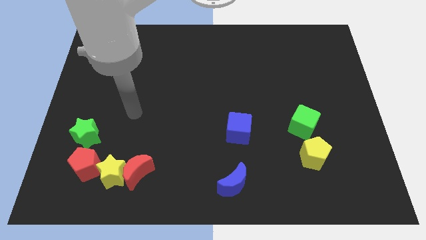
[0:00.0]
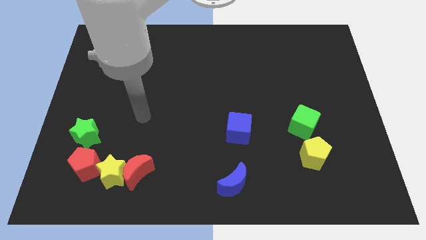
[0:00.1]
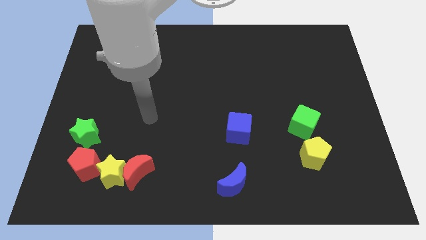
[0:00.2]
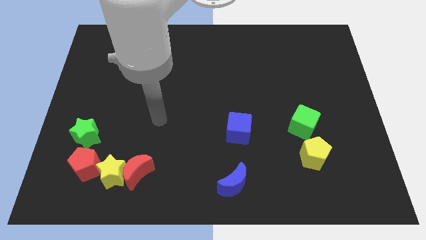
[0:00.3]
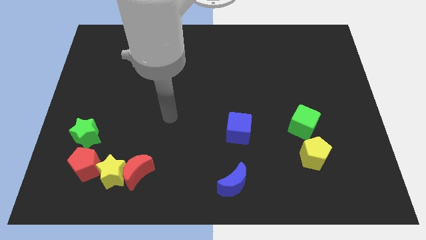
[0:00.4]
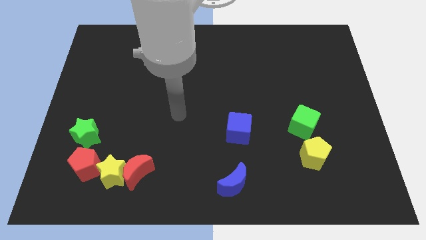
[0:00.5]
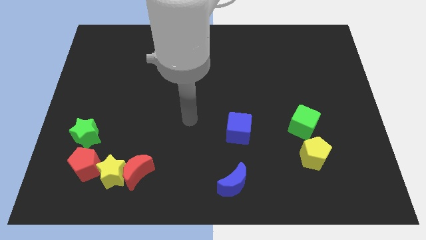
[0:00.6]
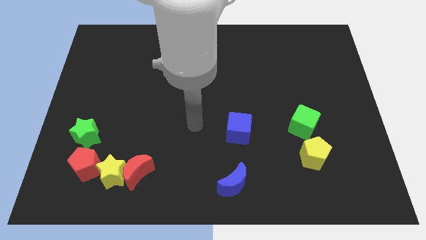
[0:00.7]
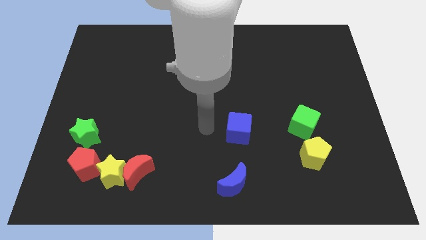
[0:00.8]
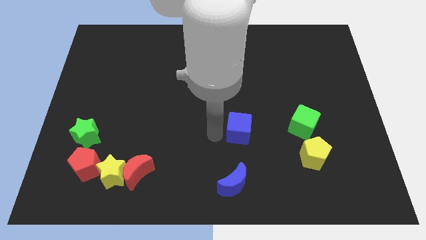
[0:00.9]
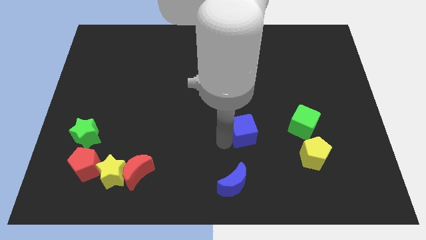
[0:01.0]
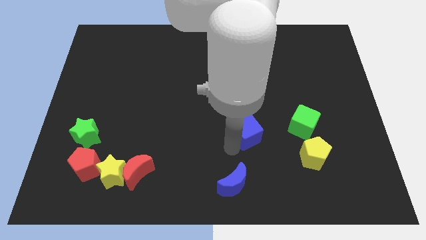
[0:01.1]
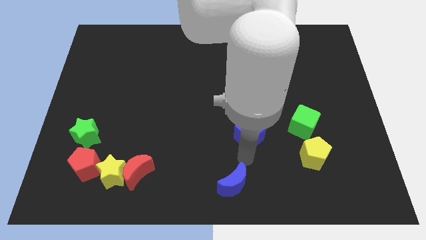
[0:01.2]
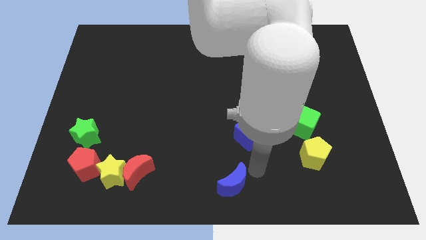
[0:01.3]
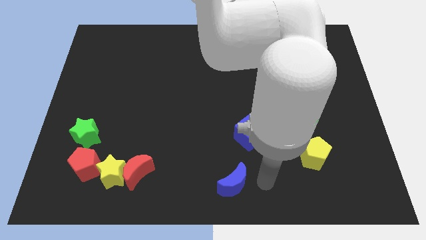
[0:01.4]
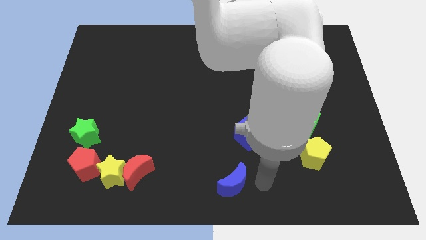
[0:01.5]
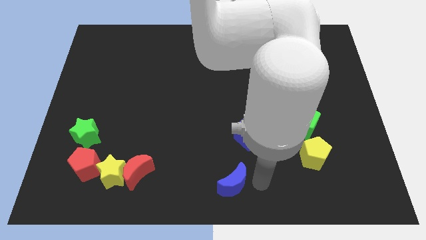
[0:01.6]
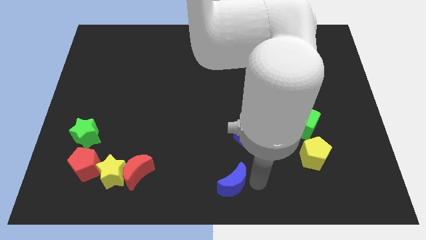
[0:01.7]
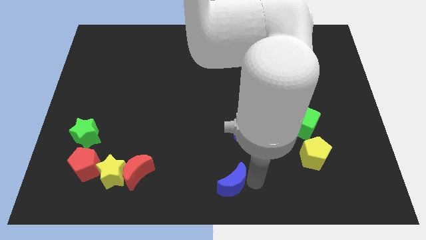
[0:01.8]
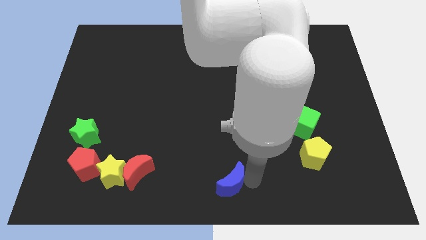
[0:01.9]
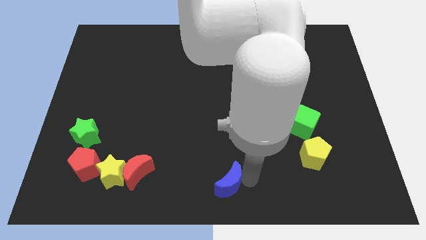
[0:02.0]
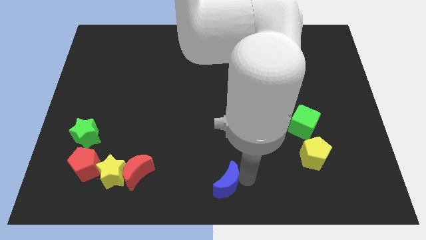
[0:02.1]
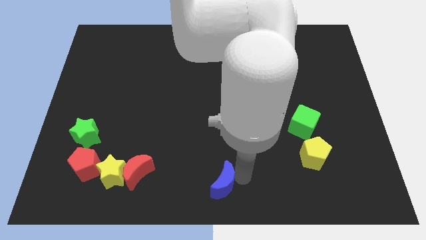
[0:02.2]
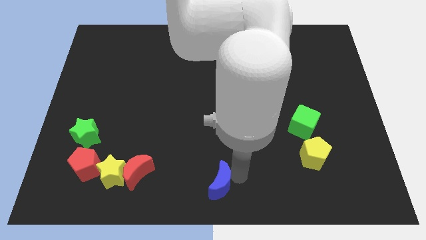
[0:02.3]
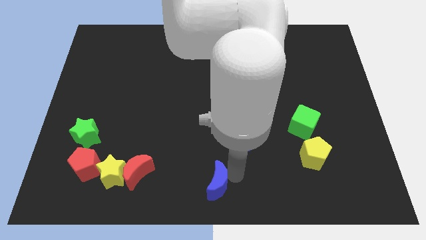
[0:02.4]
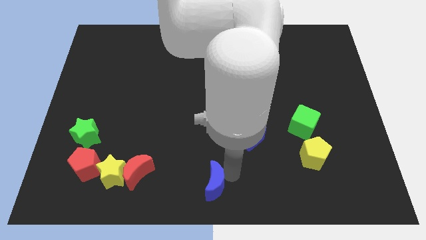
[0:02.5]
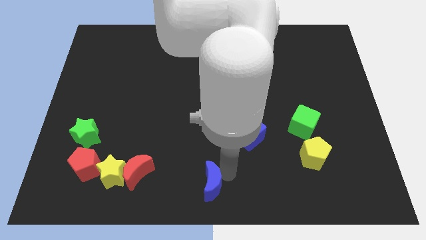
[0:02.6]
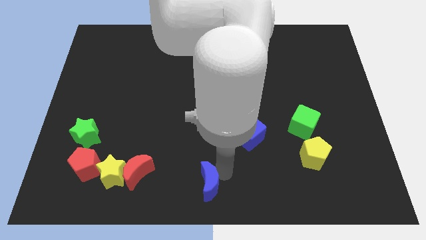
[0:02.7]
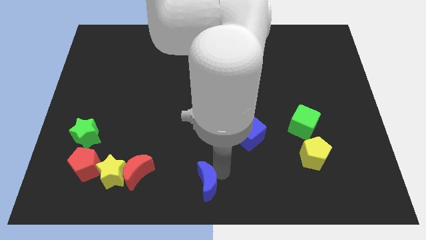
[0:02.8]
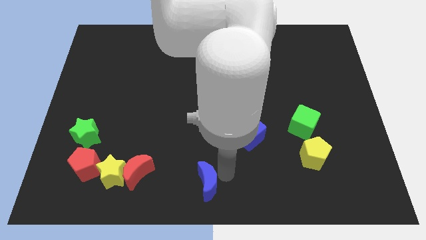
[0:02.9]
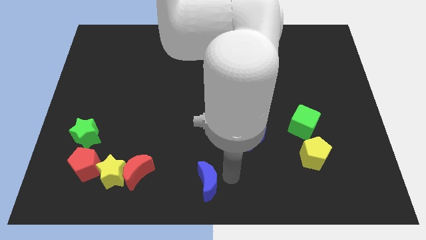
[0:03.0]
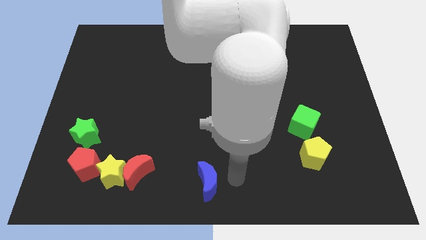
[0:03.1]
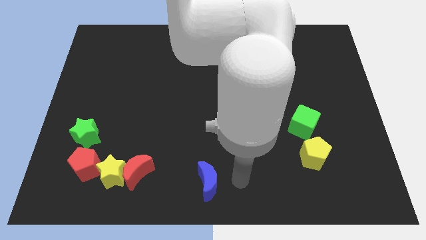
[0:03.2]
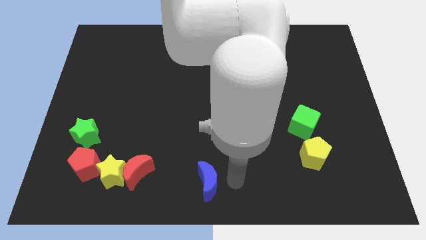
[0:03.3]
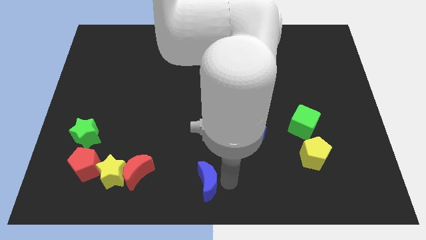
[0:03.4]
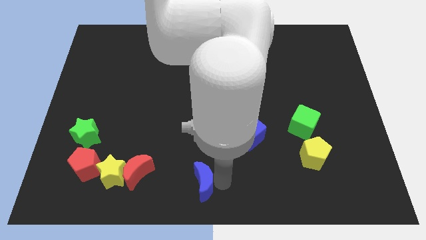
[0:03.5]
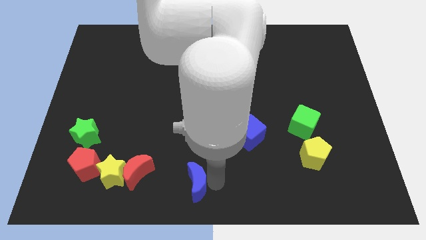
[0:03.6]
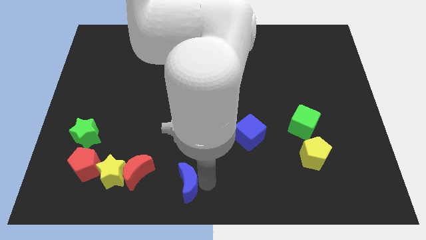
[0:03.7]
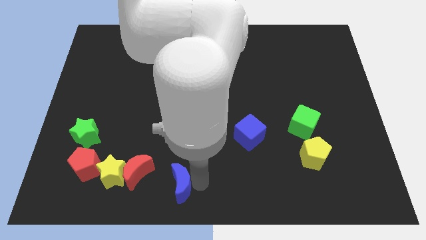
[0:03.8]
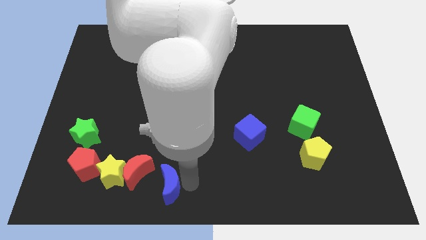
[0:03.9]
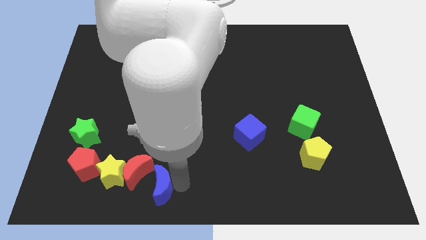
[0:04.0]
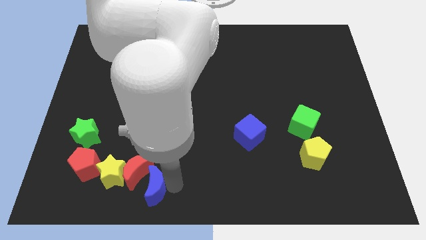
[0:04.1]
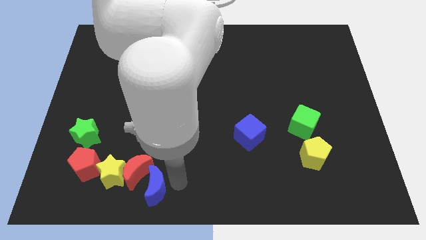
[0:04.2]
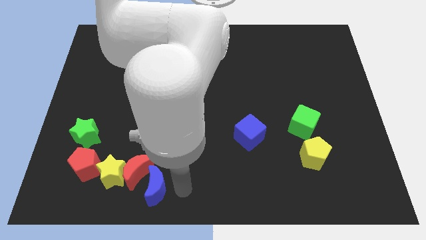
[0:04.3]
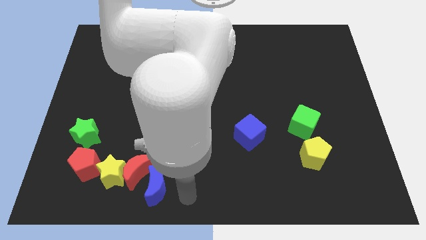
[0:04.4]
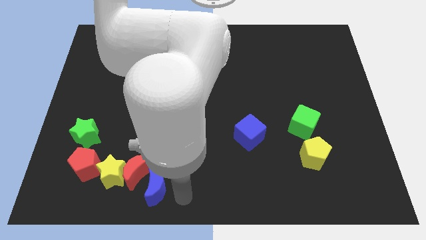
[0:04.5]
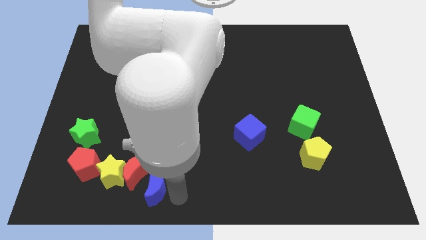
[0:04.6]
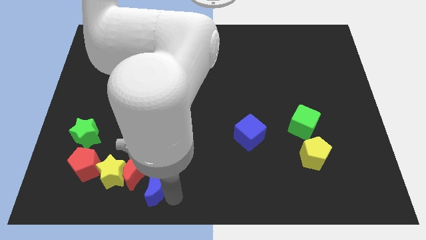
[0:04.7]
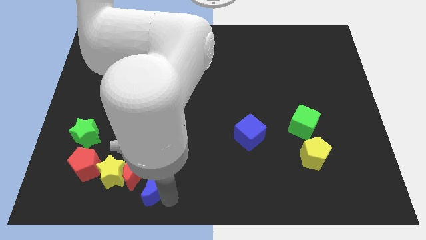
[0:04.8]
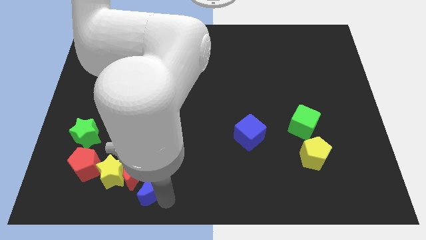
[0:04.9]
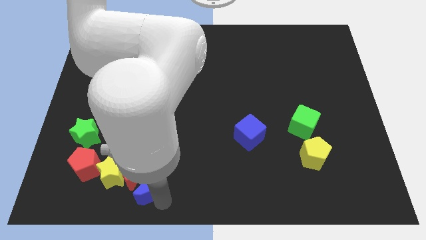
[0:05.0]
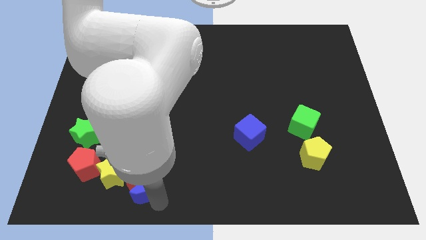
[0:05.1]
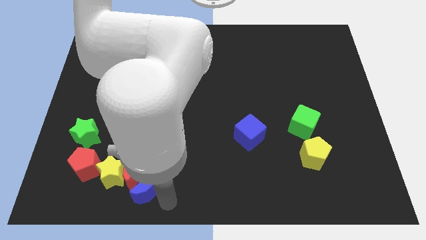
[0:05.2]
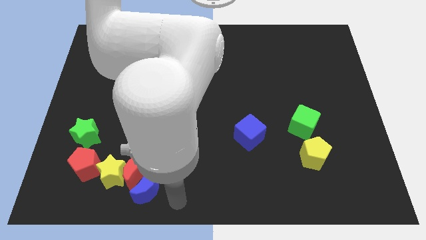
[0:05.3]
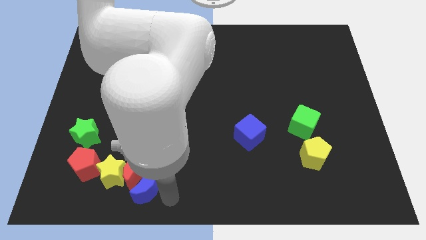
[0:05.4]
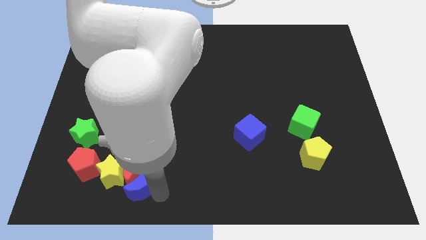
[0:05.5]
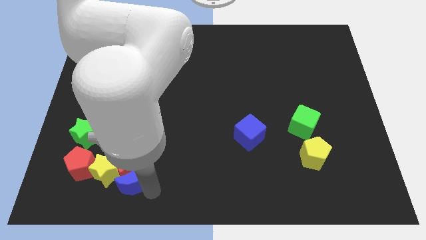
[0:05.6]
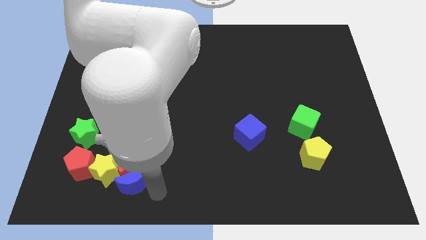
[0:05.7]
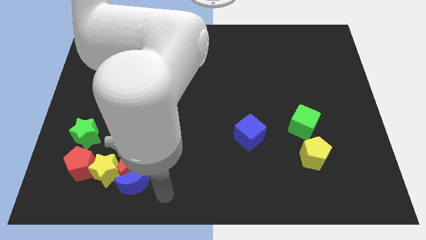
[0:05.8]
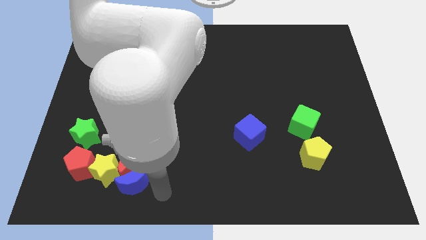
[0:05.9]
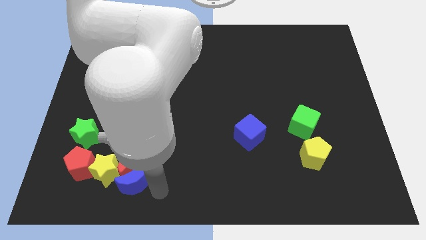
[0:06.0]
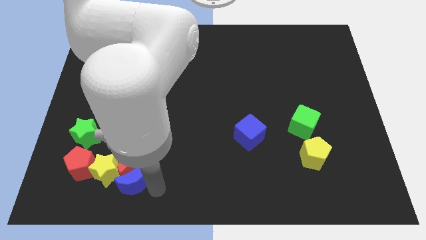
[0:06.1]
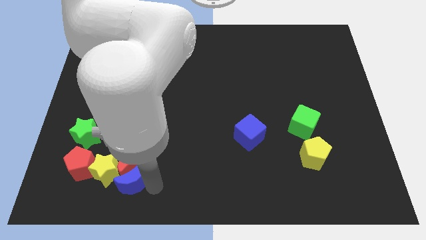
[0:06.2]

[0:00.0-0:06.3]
push the blue moon to the yellow star

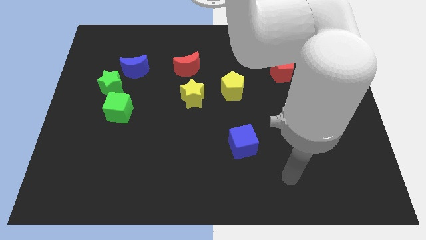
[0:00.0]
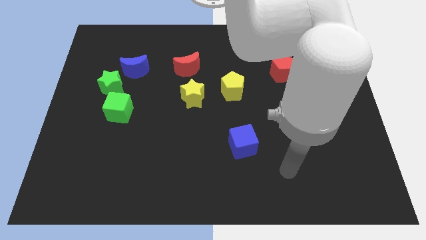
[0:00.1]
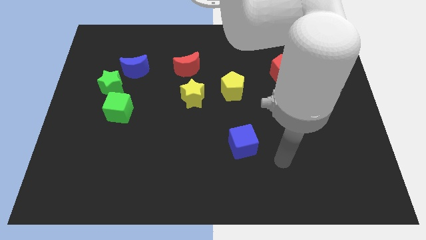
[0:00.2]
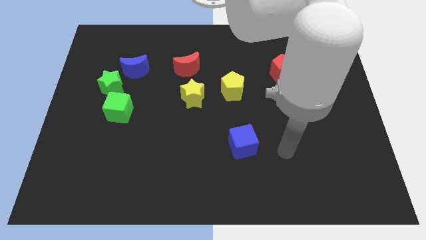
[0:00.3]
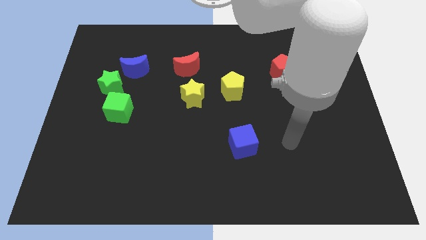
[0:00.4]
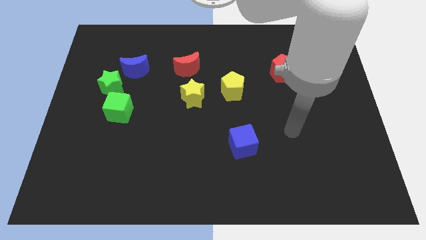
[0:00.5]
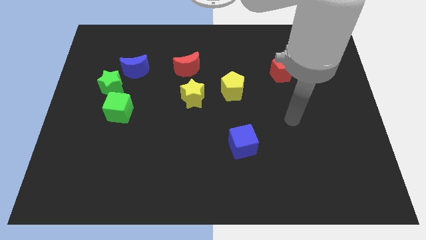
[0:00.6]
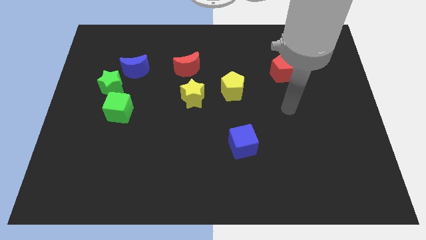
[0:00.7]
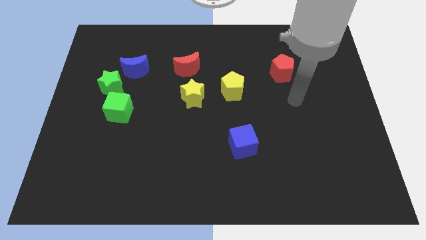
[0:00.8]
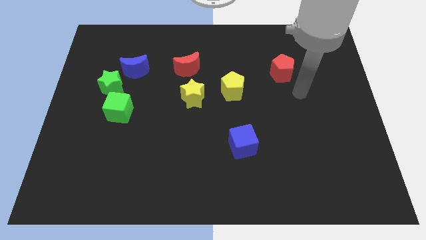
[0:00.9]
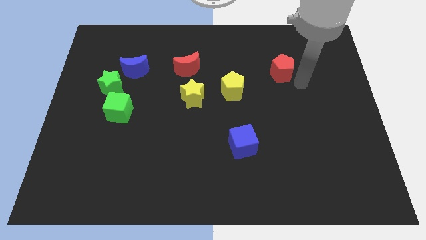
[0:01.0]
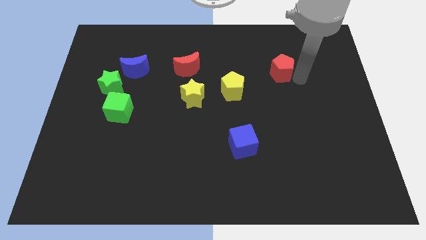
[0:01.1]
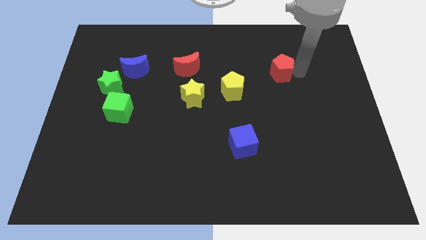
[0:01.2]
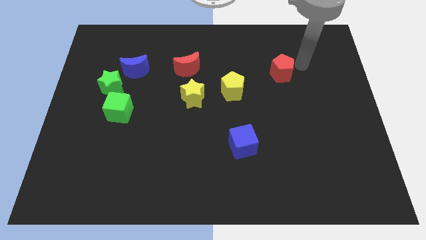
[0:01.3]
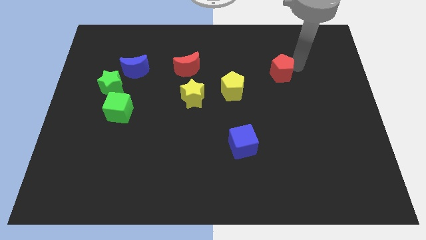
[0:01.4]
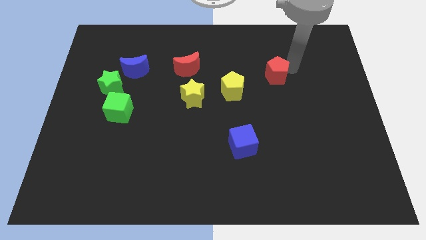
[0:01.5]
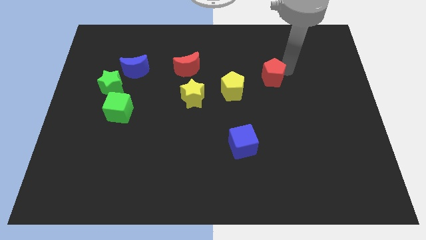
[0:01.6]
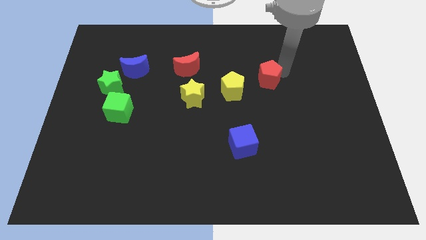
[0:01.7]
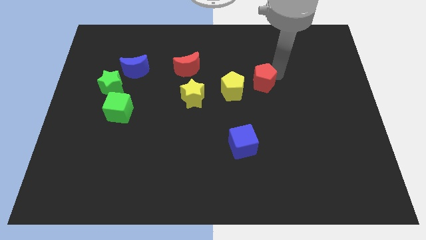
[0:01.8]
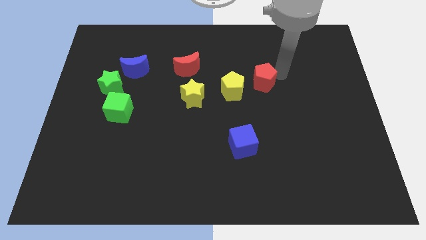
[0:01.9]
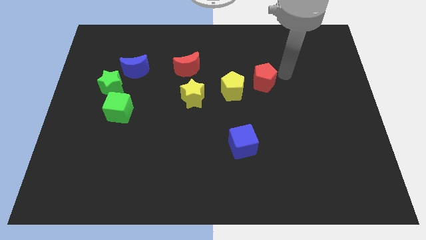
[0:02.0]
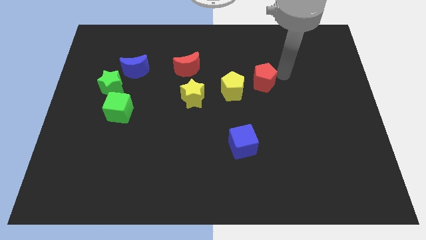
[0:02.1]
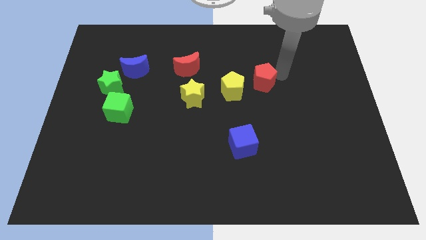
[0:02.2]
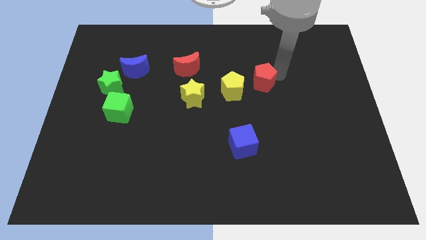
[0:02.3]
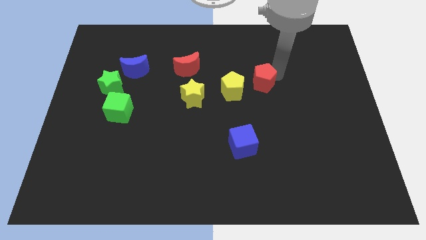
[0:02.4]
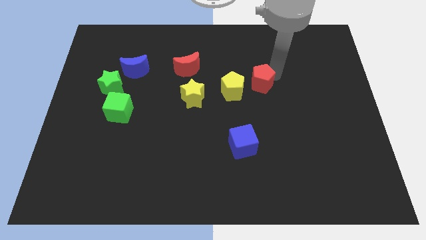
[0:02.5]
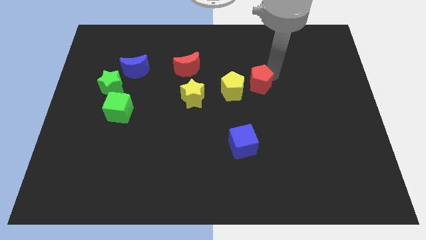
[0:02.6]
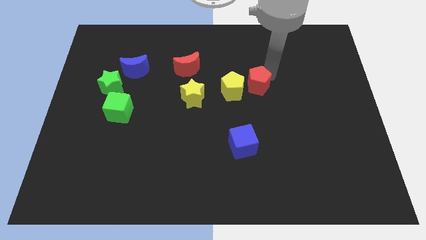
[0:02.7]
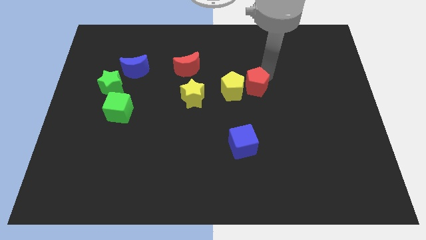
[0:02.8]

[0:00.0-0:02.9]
push the red pentagon close to the yellow pentagon
